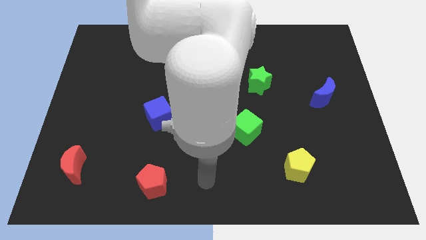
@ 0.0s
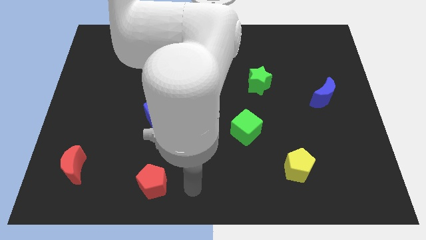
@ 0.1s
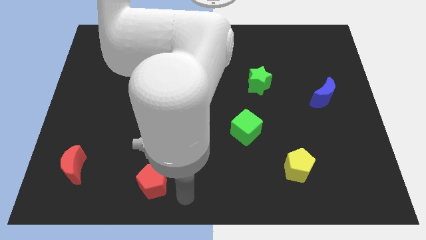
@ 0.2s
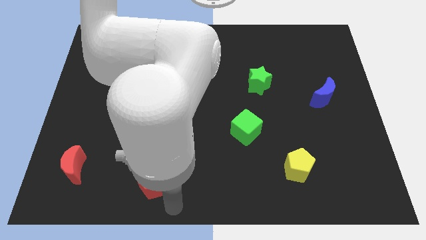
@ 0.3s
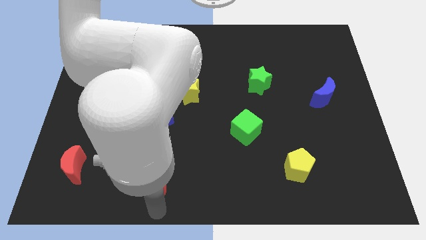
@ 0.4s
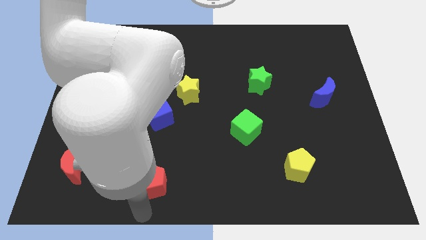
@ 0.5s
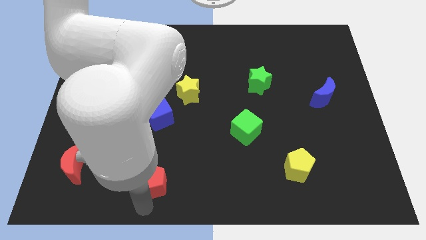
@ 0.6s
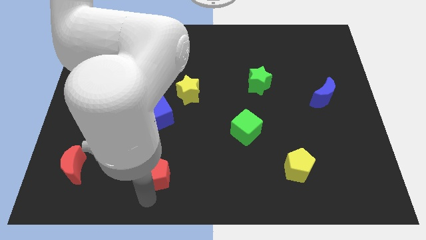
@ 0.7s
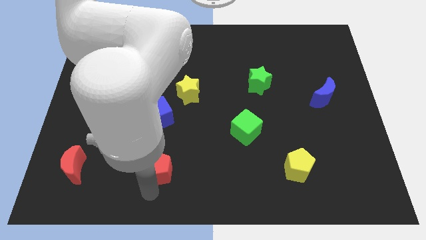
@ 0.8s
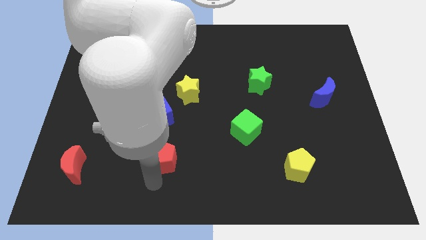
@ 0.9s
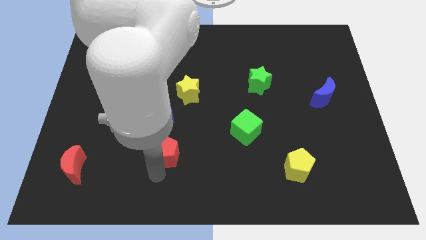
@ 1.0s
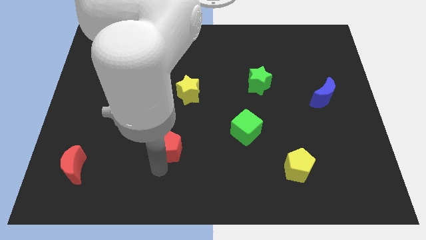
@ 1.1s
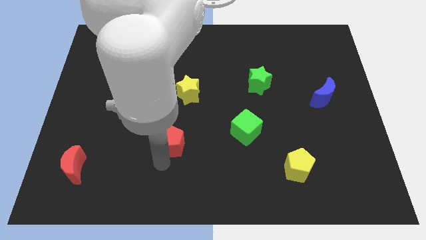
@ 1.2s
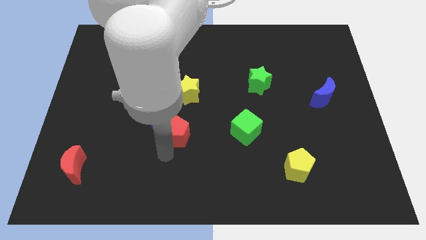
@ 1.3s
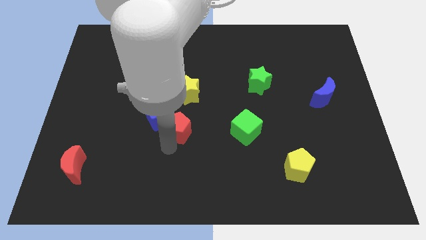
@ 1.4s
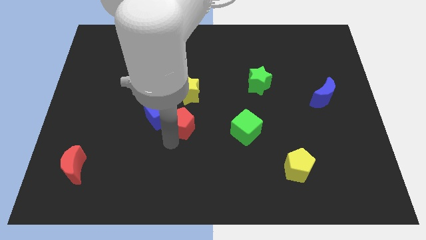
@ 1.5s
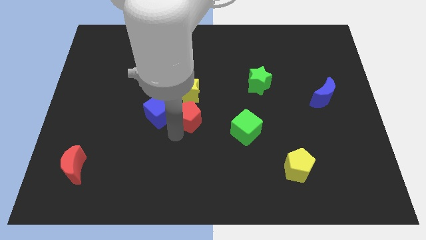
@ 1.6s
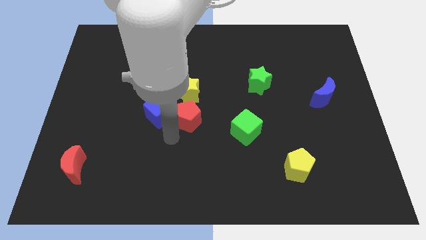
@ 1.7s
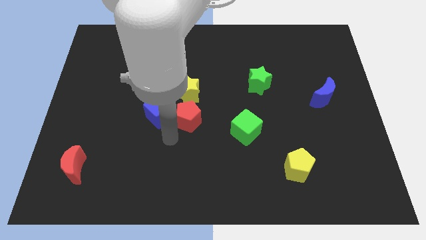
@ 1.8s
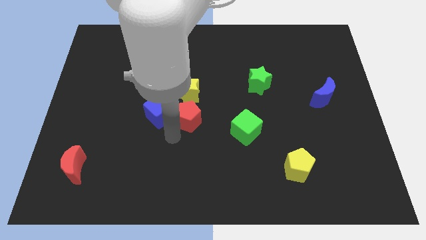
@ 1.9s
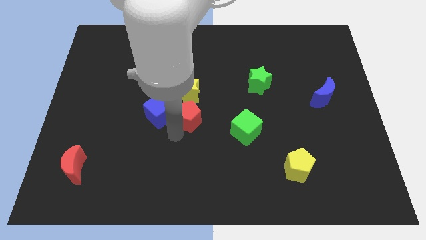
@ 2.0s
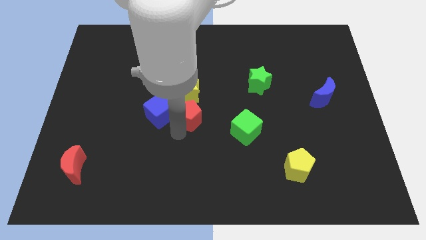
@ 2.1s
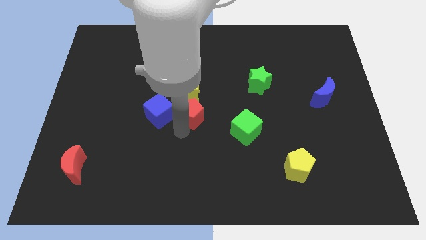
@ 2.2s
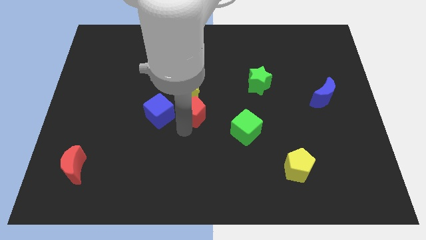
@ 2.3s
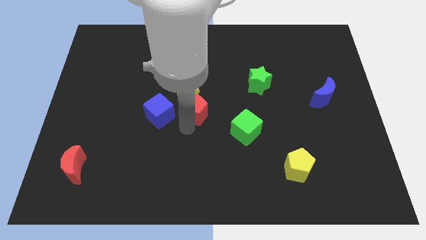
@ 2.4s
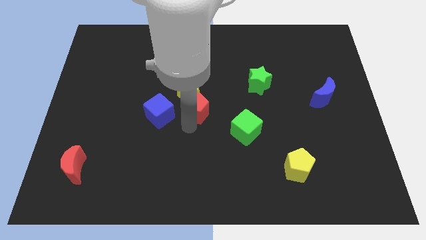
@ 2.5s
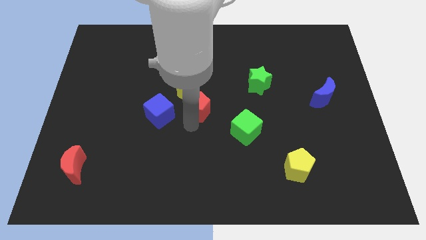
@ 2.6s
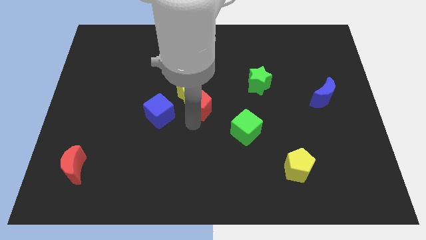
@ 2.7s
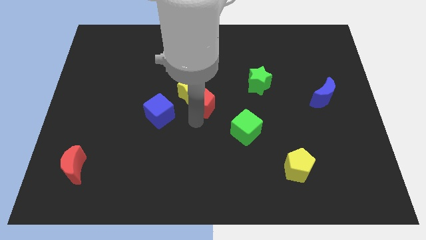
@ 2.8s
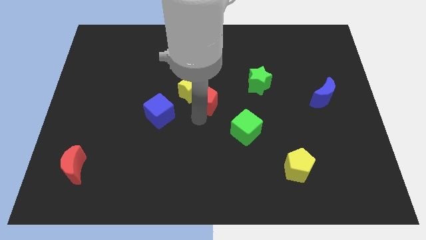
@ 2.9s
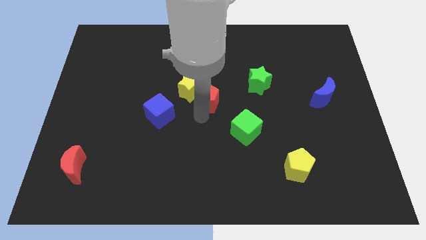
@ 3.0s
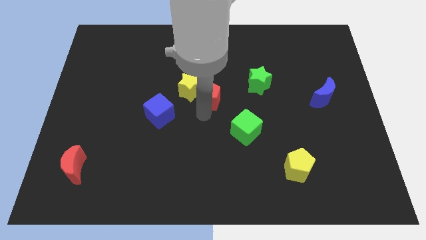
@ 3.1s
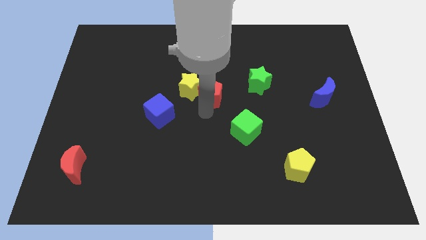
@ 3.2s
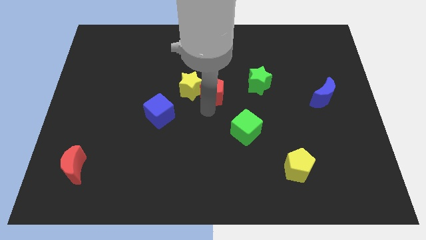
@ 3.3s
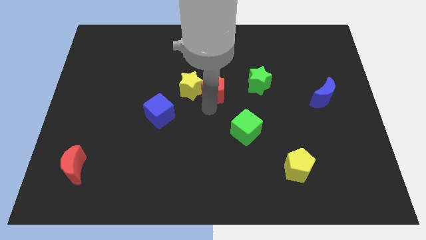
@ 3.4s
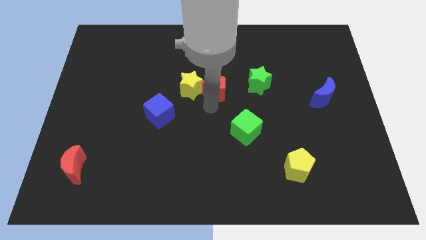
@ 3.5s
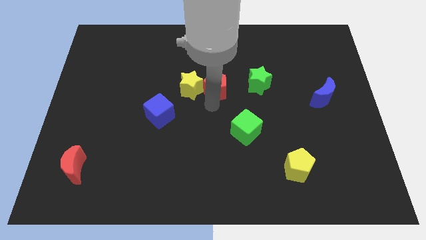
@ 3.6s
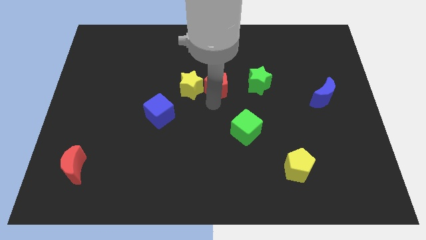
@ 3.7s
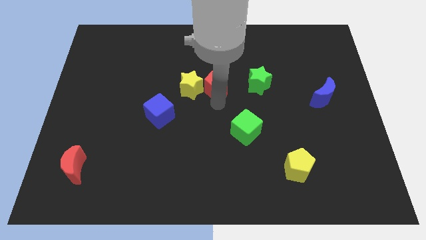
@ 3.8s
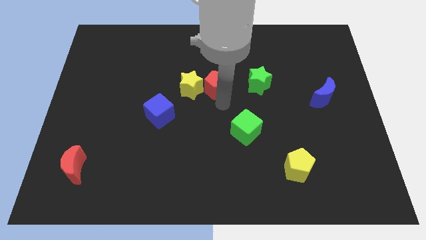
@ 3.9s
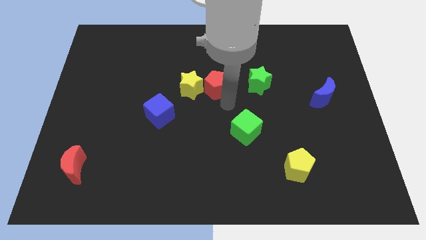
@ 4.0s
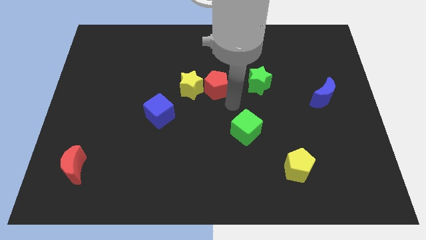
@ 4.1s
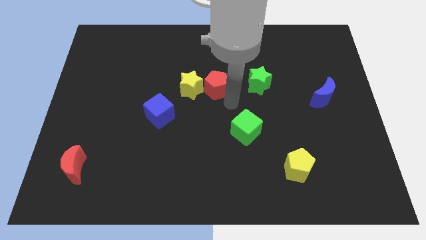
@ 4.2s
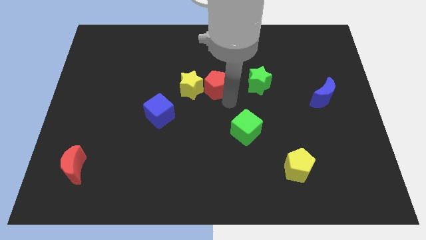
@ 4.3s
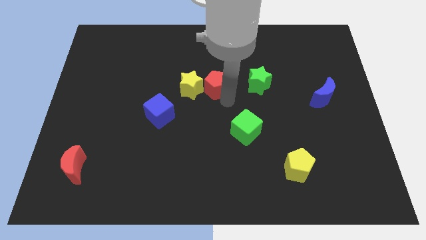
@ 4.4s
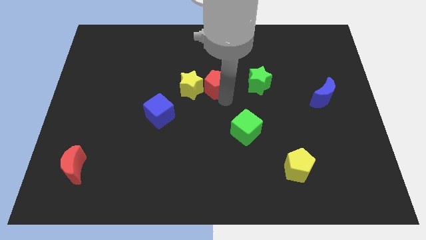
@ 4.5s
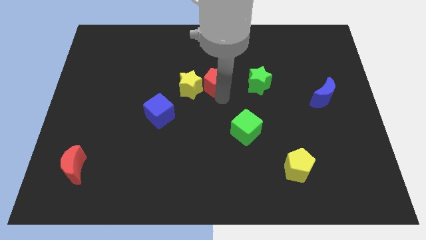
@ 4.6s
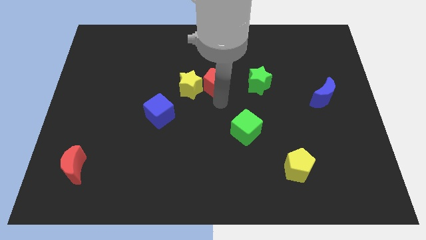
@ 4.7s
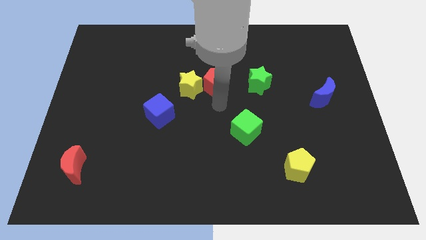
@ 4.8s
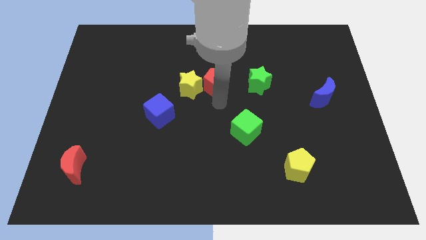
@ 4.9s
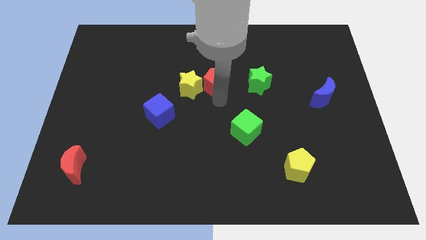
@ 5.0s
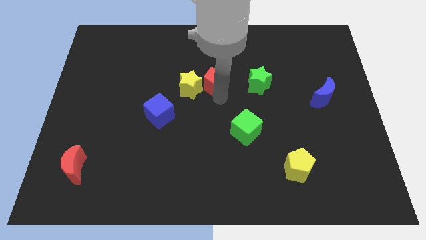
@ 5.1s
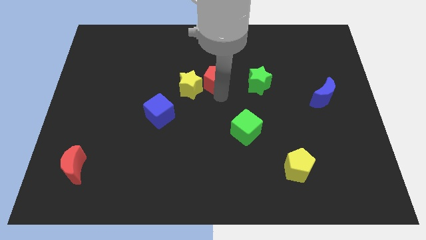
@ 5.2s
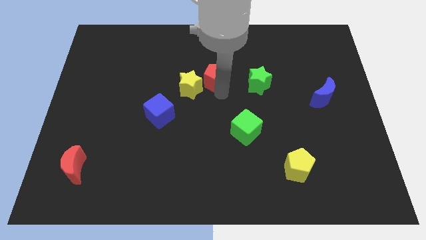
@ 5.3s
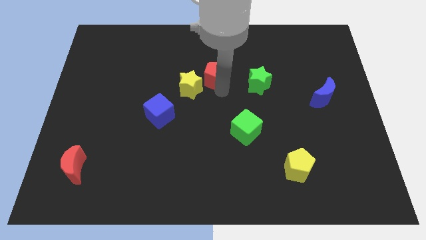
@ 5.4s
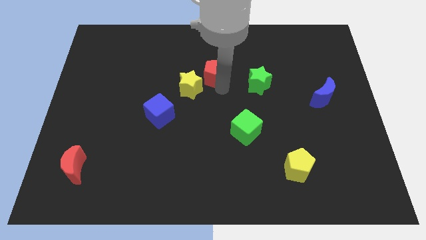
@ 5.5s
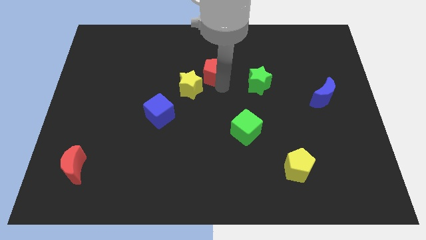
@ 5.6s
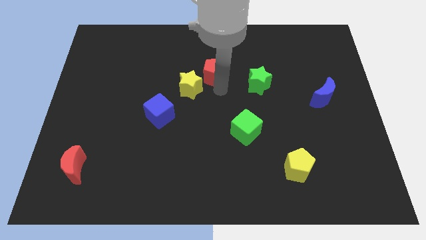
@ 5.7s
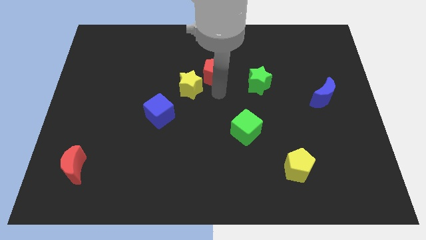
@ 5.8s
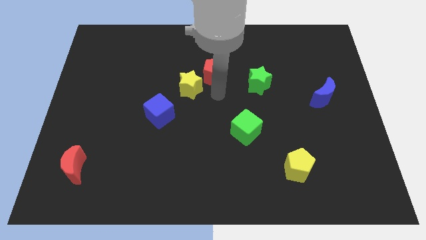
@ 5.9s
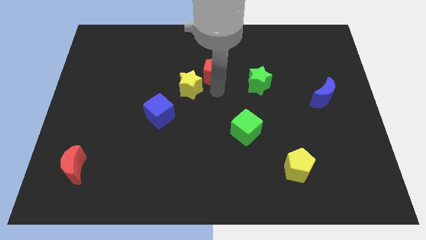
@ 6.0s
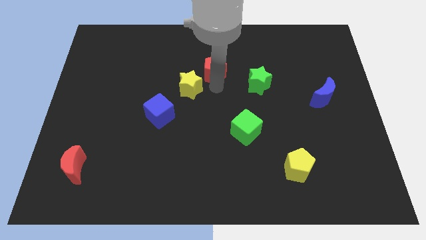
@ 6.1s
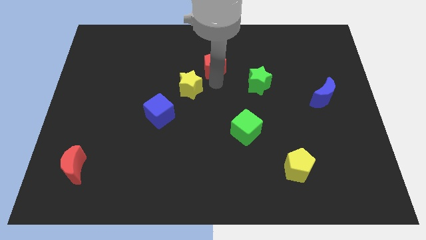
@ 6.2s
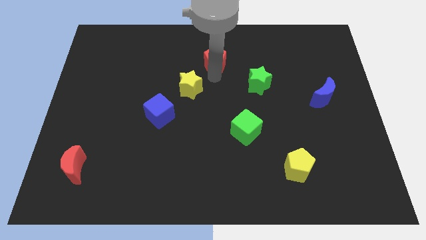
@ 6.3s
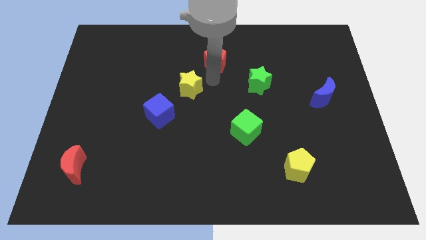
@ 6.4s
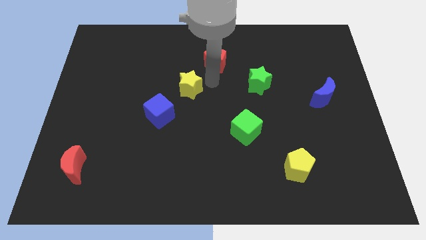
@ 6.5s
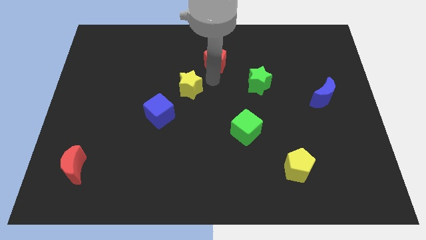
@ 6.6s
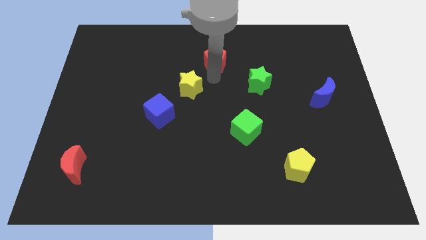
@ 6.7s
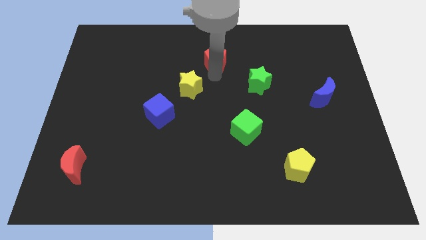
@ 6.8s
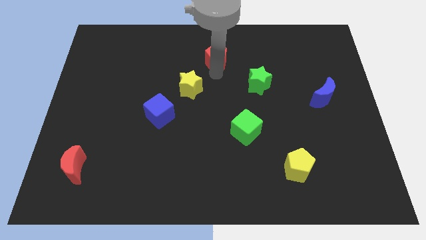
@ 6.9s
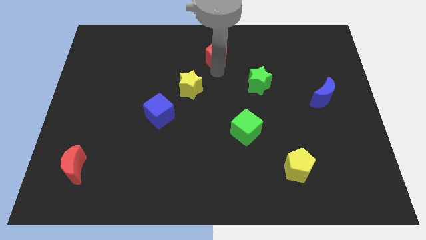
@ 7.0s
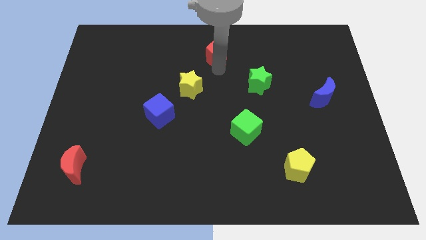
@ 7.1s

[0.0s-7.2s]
push the red pentagon to the top side
